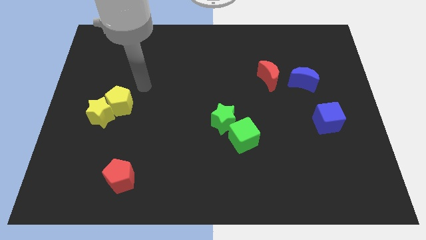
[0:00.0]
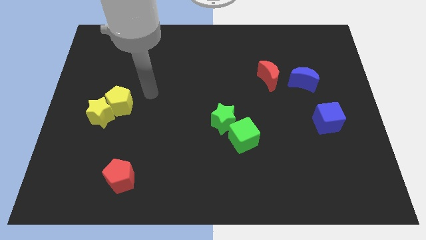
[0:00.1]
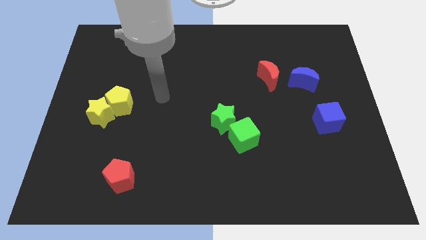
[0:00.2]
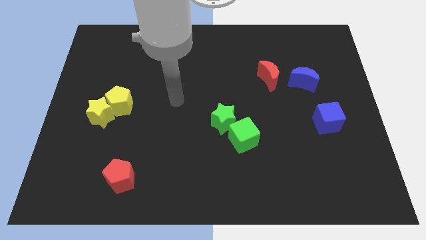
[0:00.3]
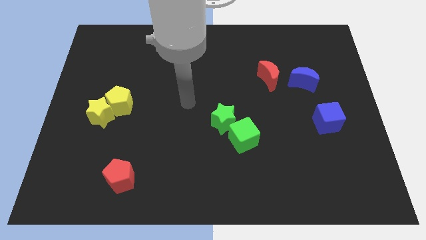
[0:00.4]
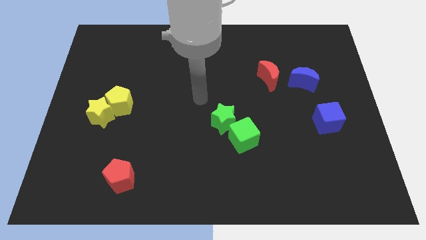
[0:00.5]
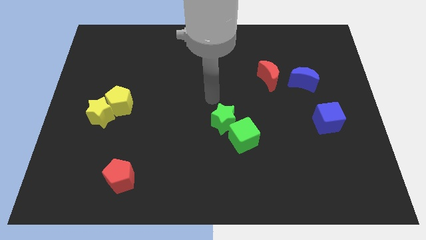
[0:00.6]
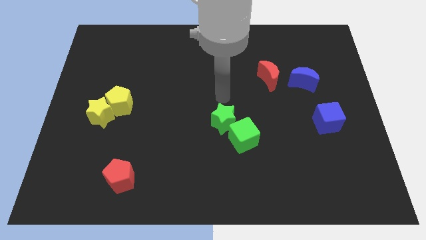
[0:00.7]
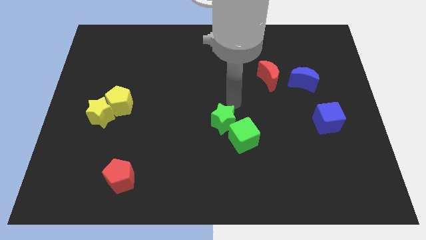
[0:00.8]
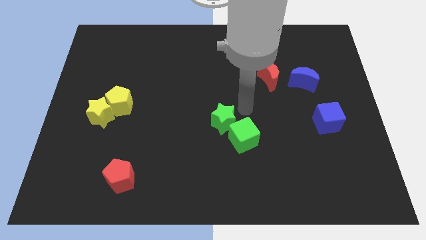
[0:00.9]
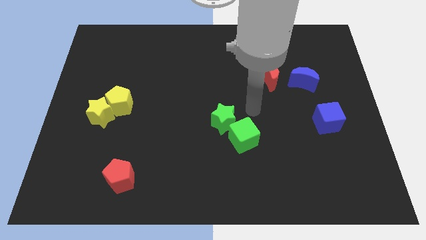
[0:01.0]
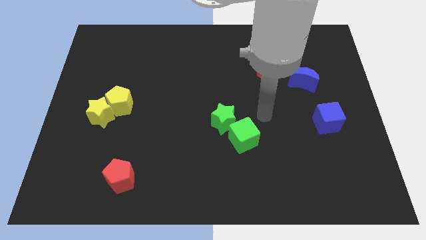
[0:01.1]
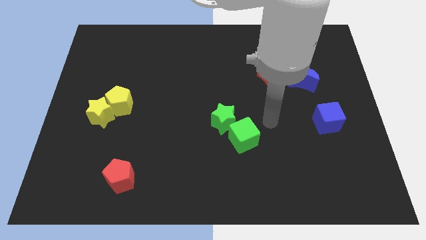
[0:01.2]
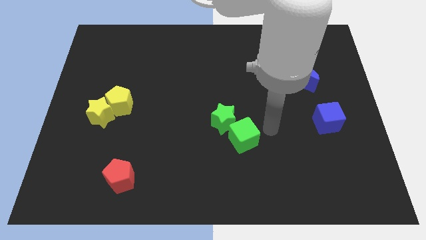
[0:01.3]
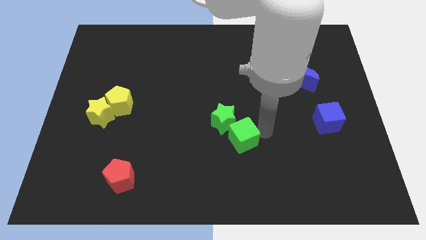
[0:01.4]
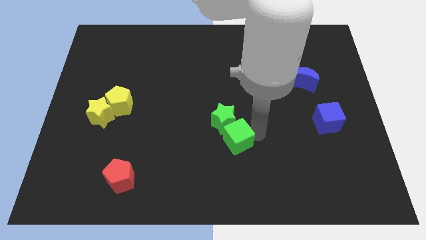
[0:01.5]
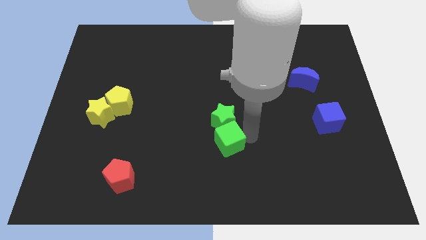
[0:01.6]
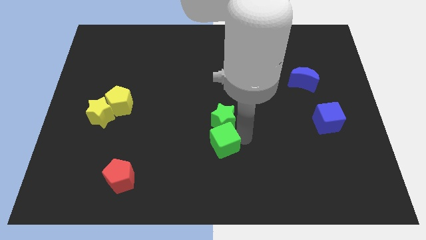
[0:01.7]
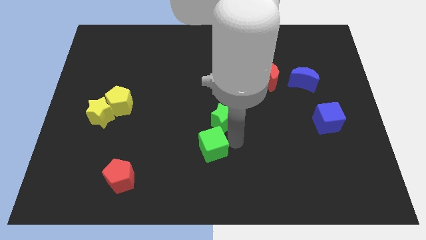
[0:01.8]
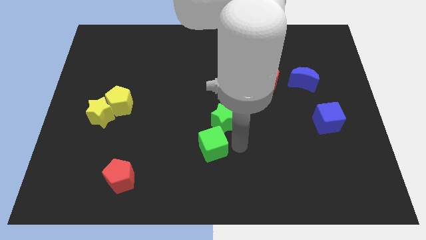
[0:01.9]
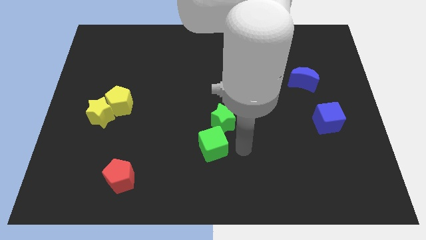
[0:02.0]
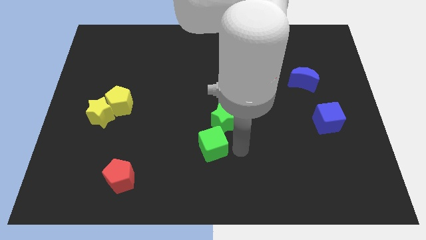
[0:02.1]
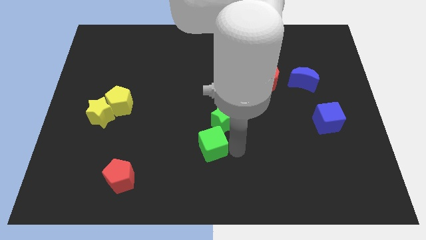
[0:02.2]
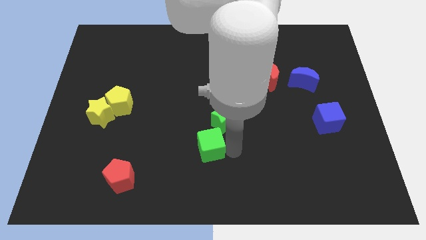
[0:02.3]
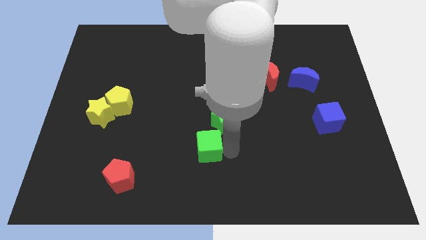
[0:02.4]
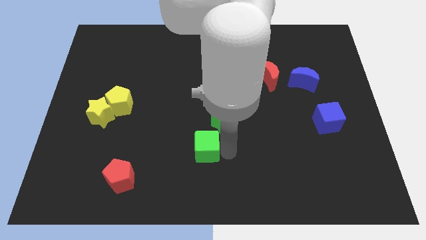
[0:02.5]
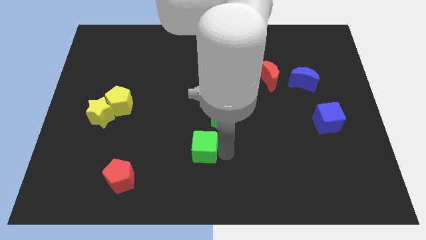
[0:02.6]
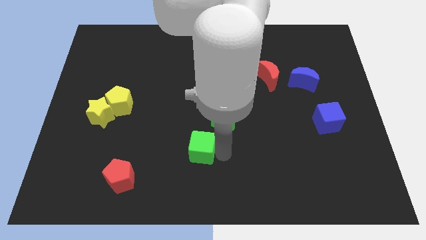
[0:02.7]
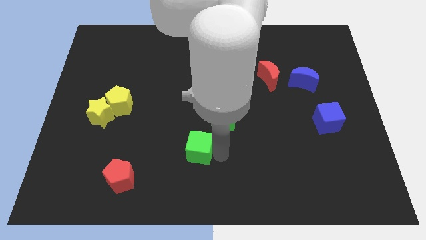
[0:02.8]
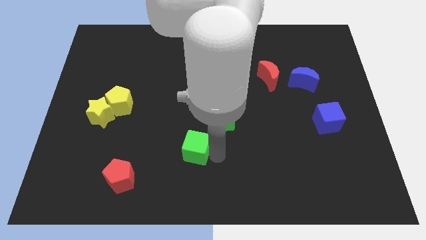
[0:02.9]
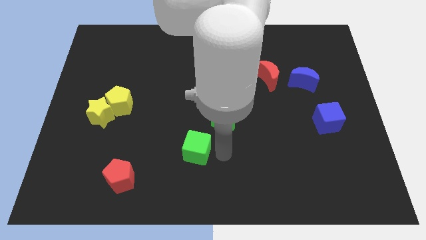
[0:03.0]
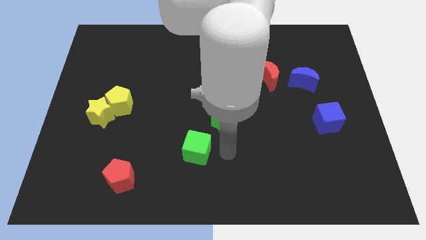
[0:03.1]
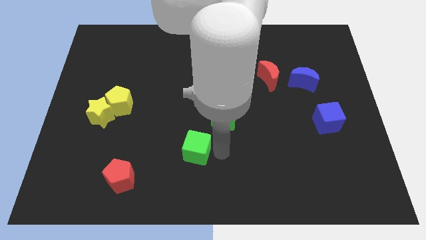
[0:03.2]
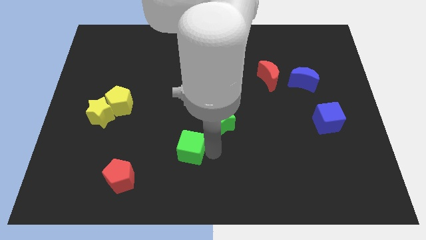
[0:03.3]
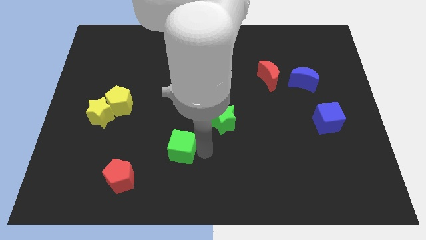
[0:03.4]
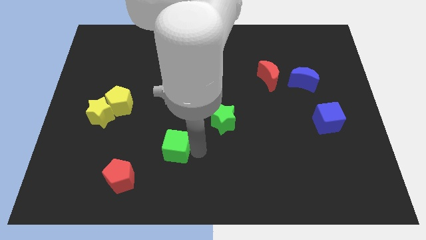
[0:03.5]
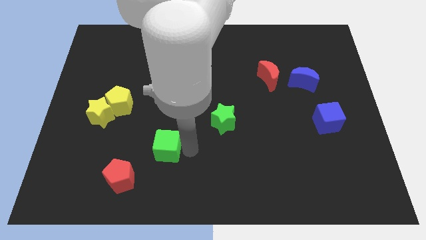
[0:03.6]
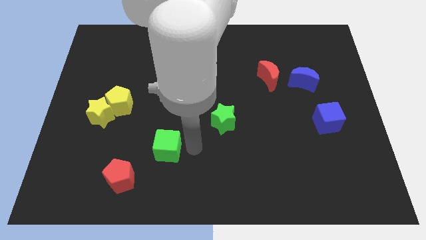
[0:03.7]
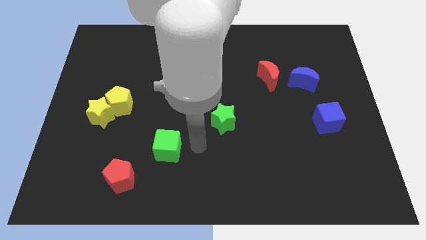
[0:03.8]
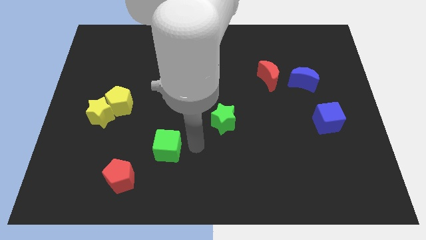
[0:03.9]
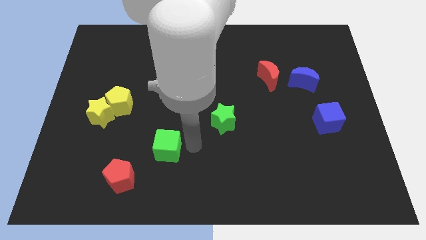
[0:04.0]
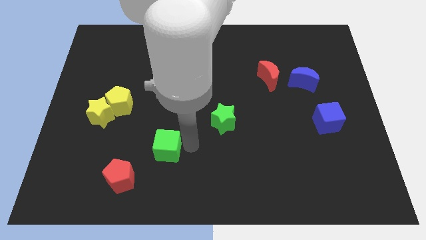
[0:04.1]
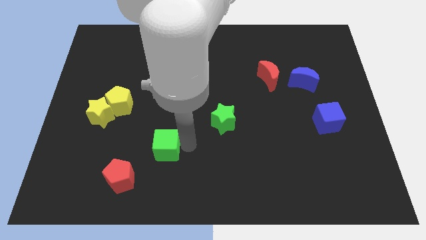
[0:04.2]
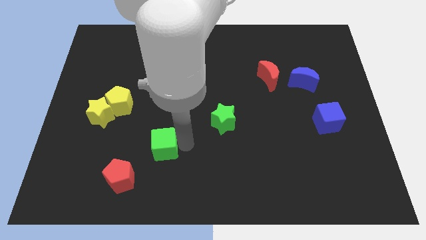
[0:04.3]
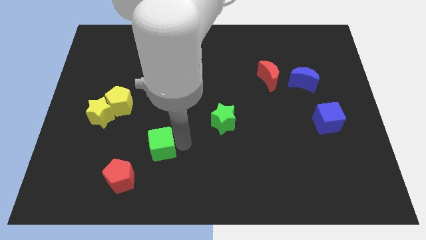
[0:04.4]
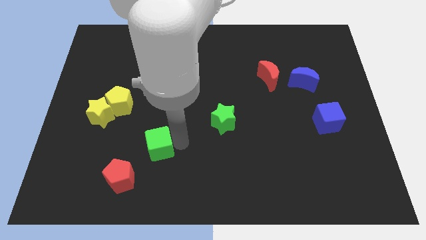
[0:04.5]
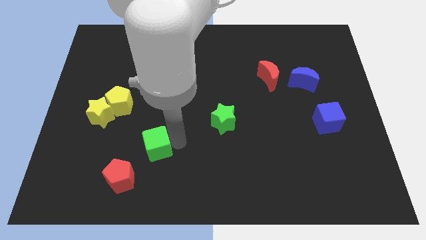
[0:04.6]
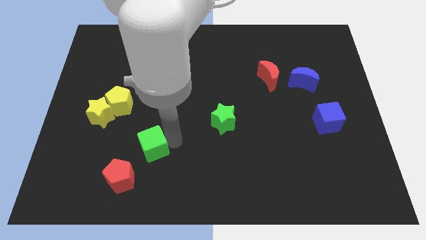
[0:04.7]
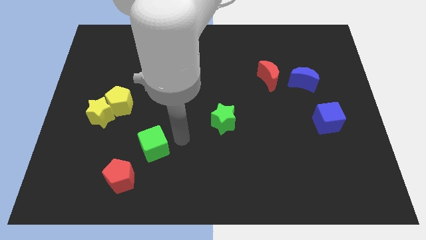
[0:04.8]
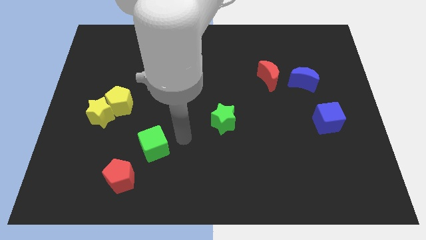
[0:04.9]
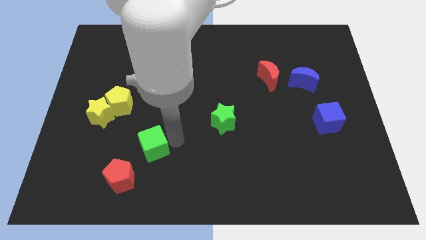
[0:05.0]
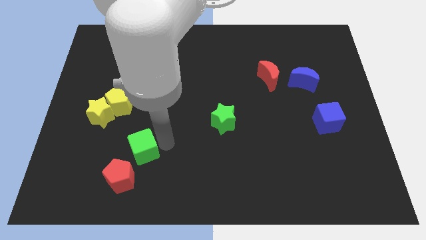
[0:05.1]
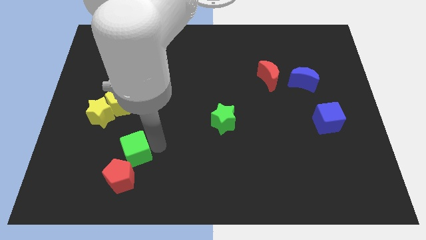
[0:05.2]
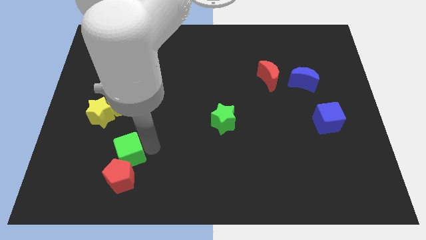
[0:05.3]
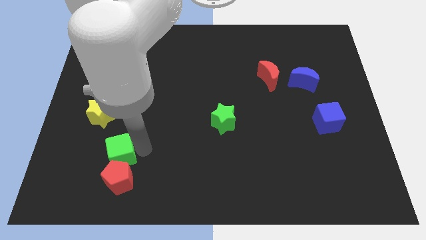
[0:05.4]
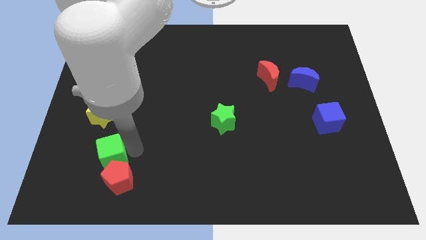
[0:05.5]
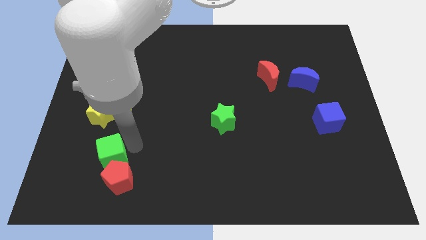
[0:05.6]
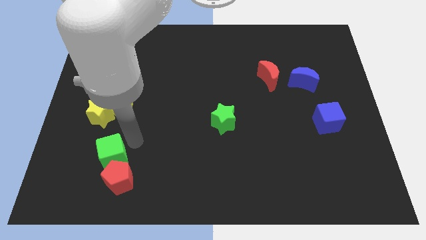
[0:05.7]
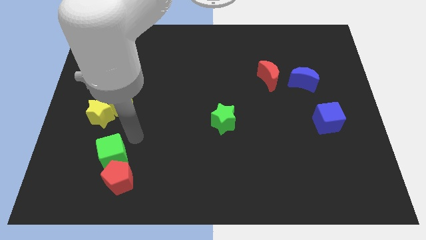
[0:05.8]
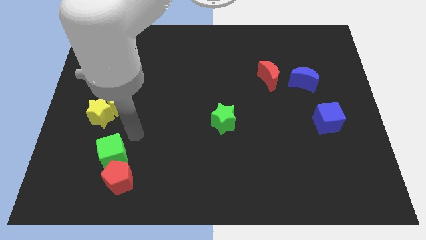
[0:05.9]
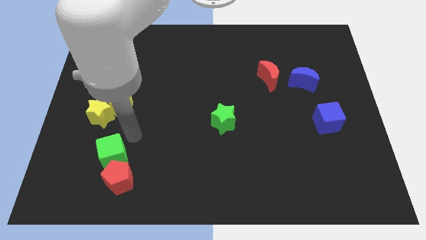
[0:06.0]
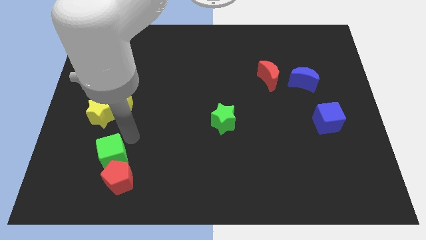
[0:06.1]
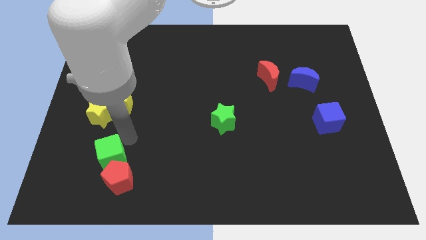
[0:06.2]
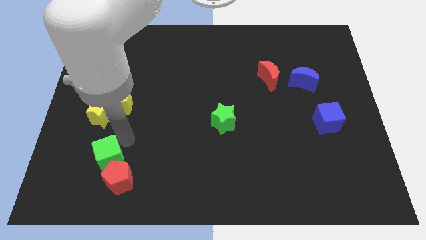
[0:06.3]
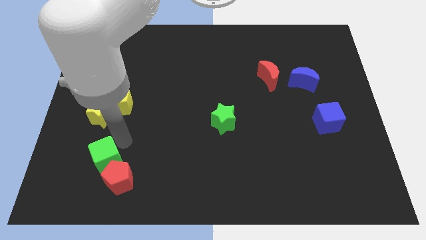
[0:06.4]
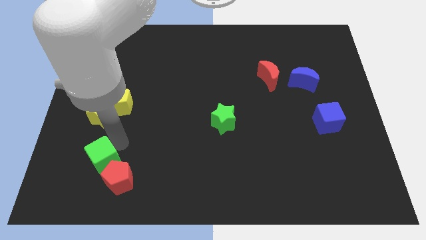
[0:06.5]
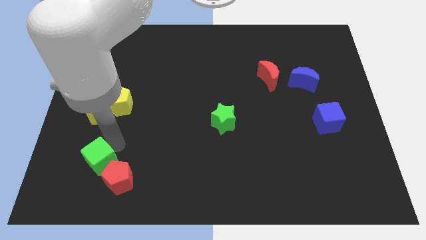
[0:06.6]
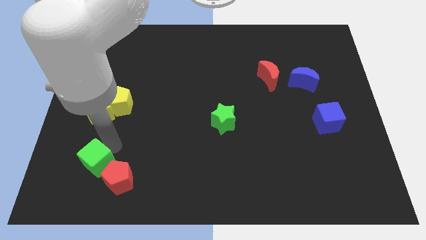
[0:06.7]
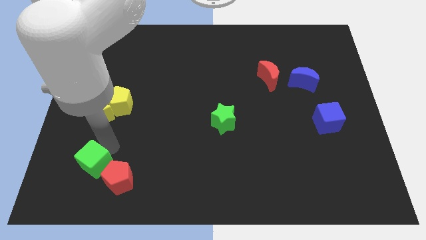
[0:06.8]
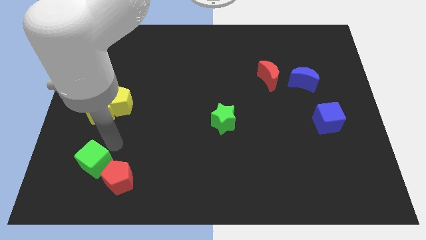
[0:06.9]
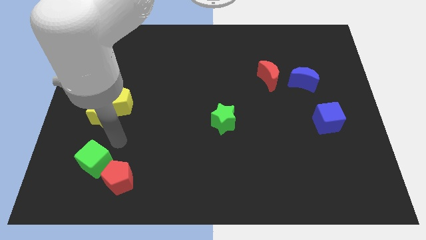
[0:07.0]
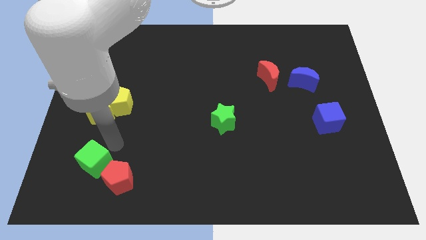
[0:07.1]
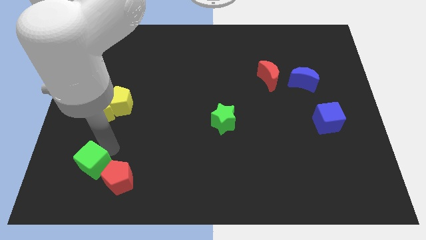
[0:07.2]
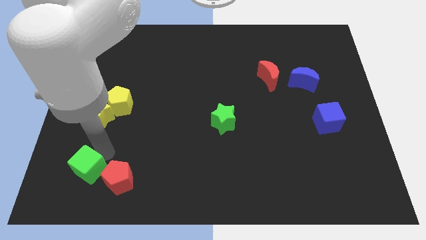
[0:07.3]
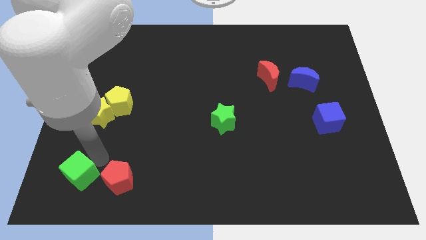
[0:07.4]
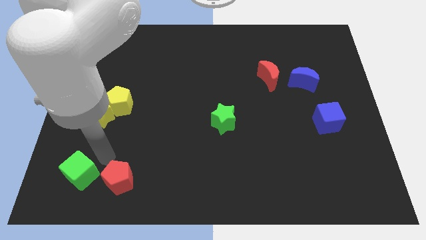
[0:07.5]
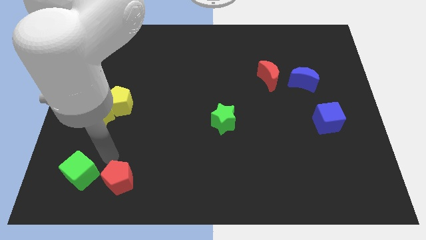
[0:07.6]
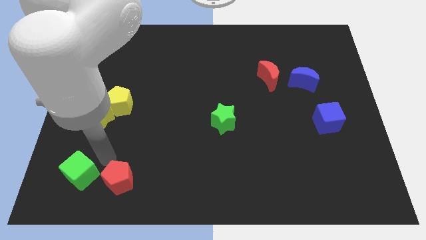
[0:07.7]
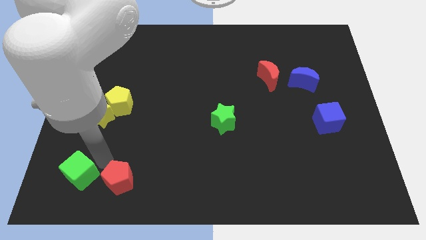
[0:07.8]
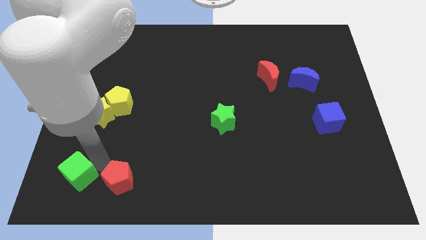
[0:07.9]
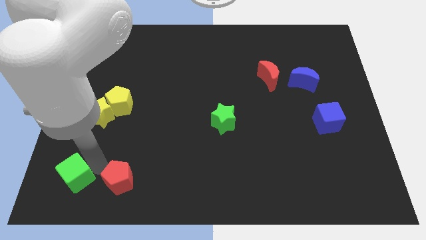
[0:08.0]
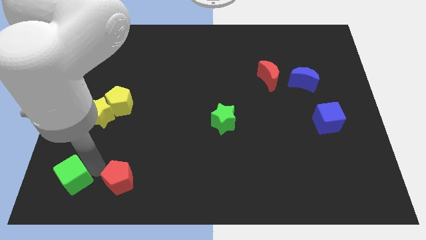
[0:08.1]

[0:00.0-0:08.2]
slide the green cube to the bottom left corner
